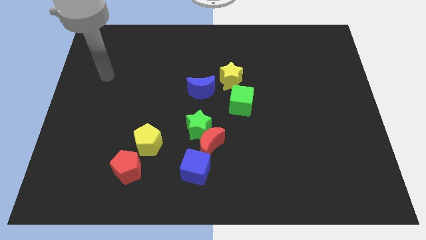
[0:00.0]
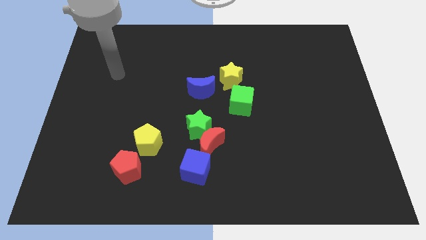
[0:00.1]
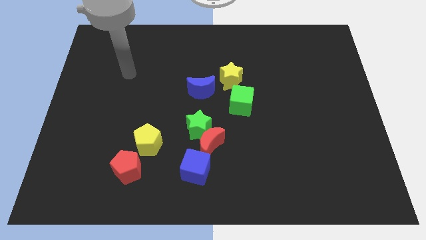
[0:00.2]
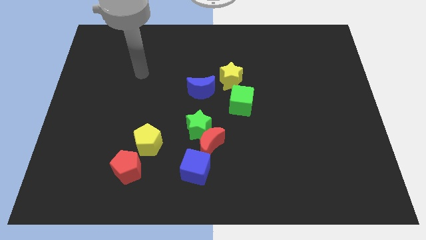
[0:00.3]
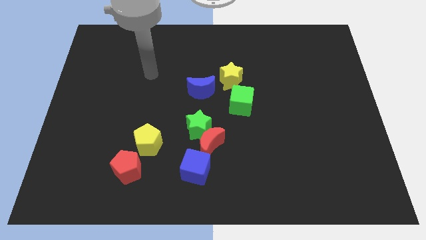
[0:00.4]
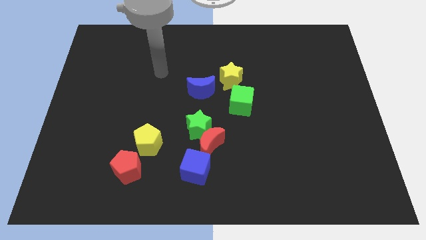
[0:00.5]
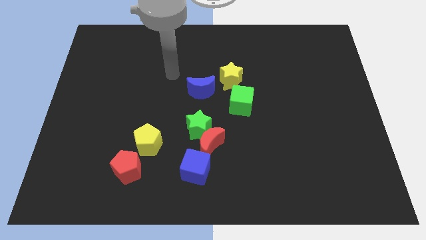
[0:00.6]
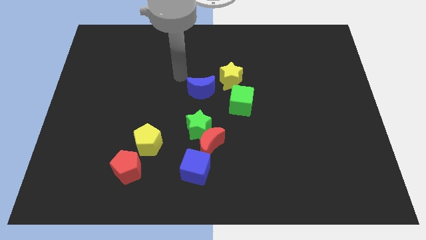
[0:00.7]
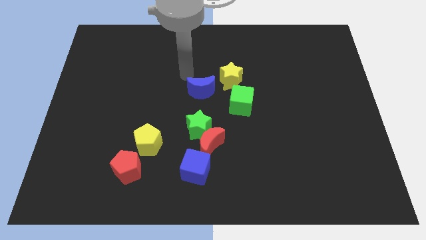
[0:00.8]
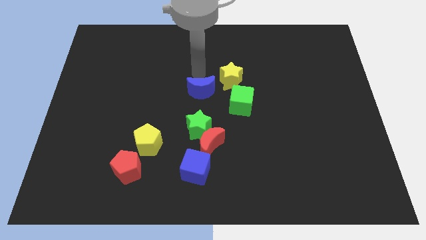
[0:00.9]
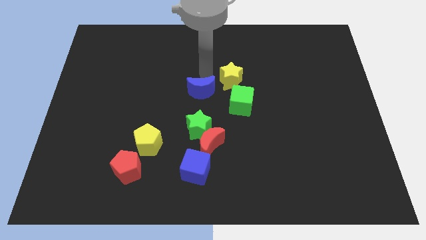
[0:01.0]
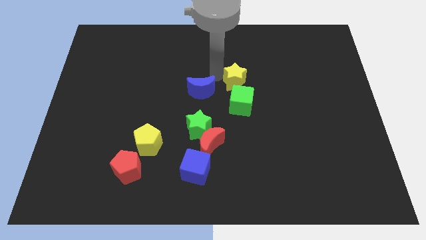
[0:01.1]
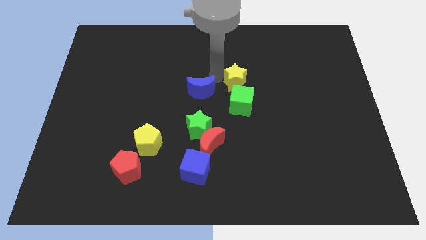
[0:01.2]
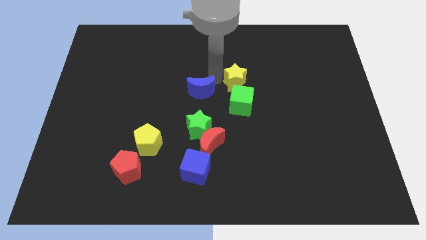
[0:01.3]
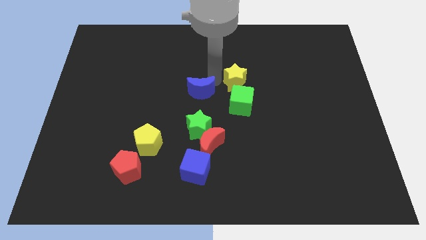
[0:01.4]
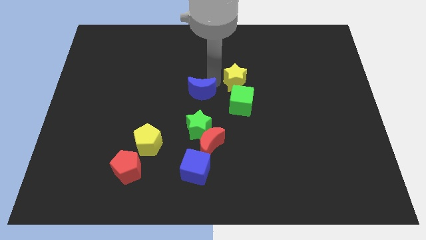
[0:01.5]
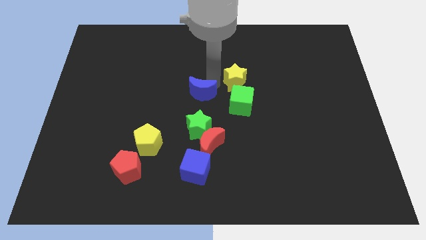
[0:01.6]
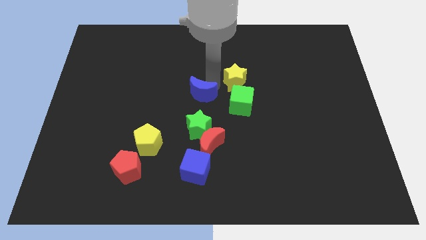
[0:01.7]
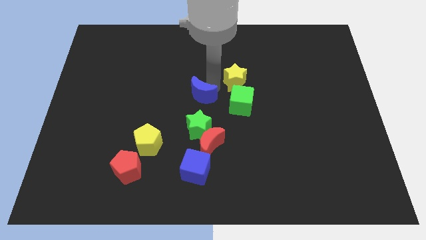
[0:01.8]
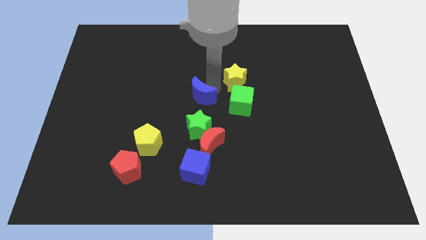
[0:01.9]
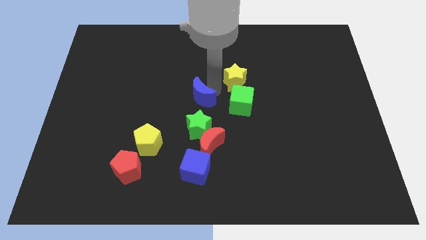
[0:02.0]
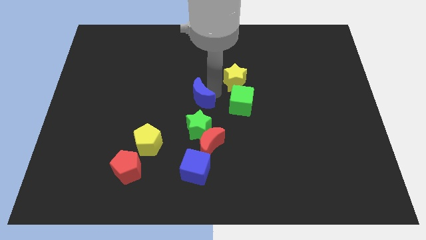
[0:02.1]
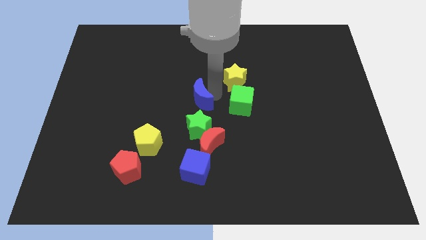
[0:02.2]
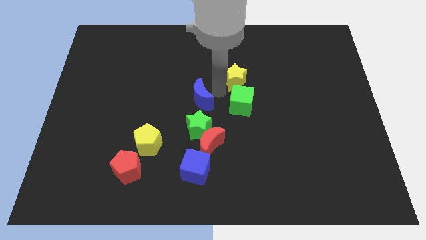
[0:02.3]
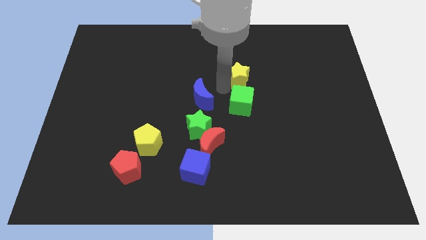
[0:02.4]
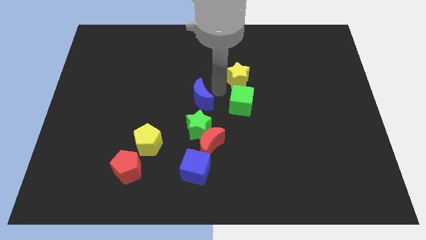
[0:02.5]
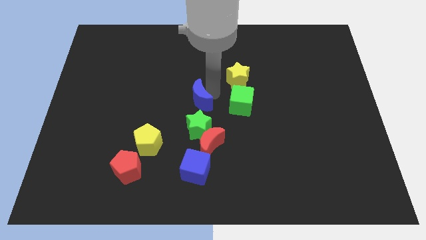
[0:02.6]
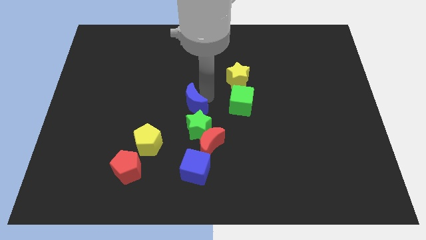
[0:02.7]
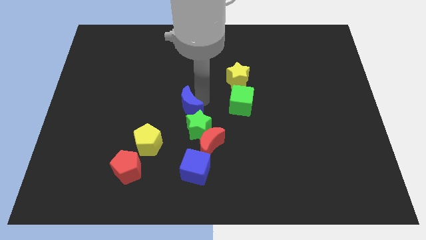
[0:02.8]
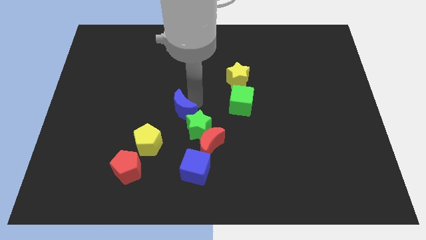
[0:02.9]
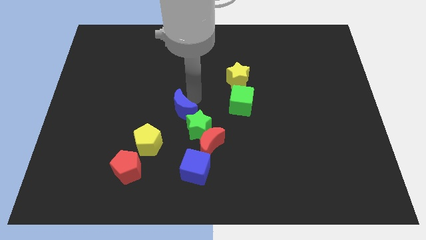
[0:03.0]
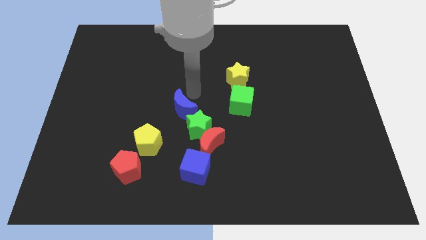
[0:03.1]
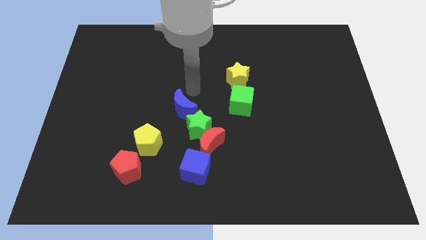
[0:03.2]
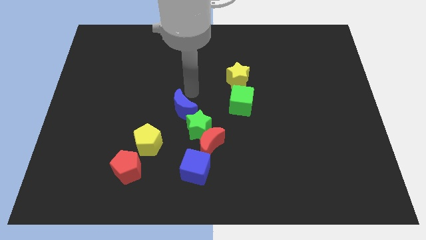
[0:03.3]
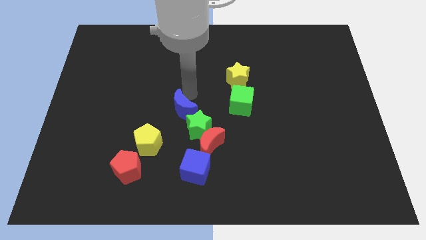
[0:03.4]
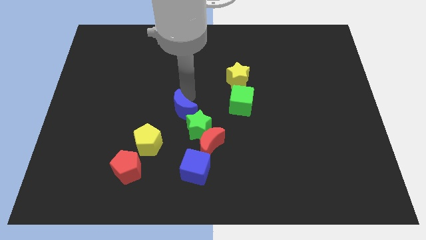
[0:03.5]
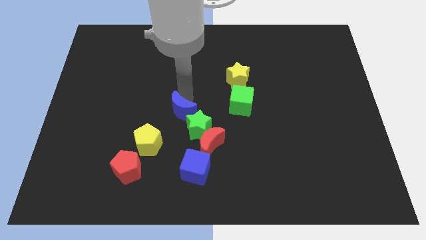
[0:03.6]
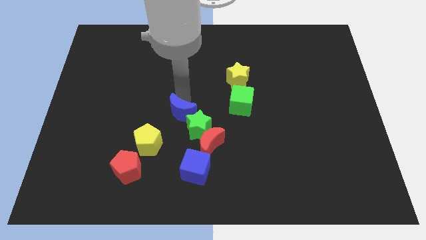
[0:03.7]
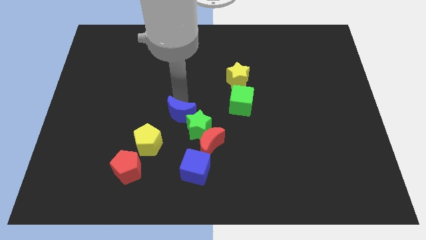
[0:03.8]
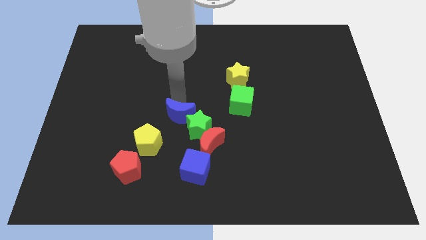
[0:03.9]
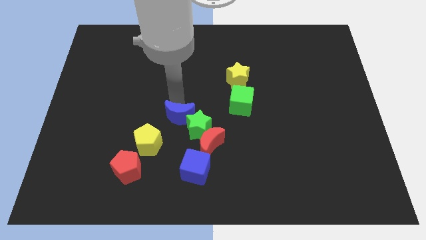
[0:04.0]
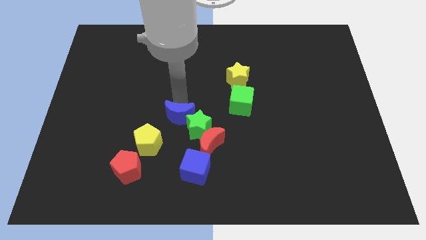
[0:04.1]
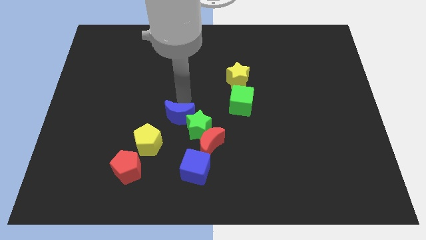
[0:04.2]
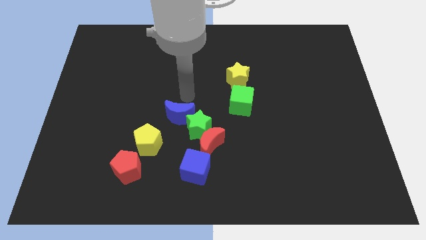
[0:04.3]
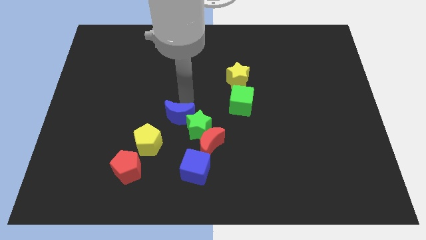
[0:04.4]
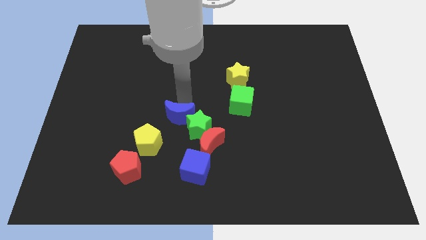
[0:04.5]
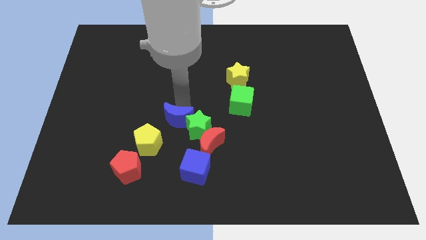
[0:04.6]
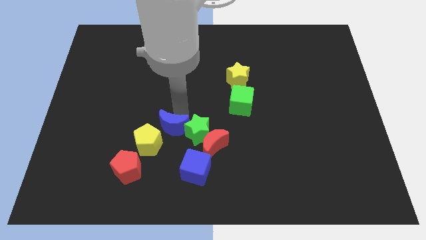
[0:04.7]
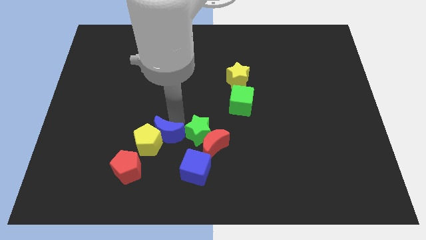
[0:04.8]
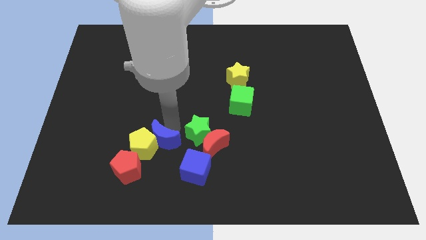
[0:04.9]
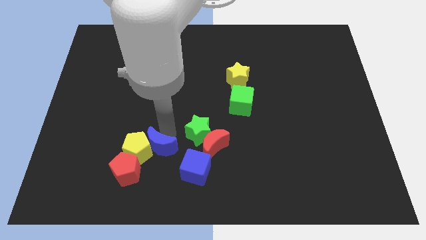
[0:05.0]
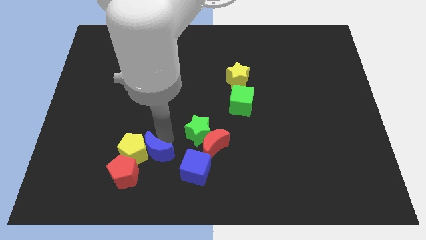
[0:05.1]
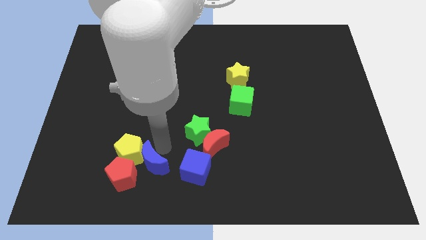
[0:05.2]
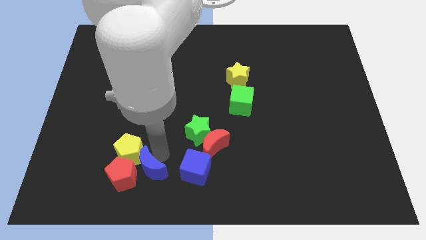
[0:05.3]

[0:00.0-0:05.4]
push the blue moon towards the red pentagon
